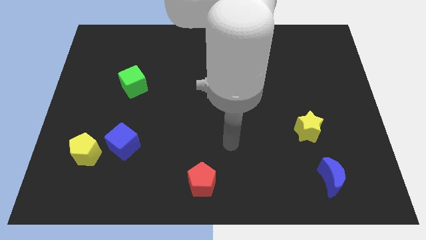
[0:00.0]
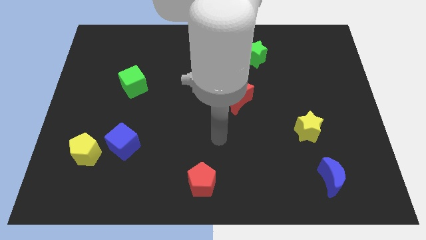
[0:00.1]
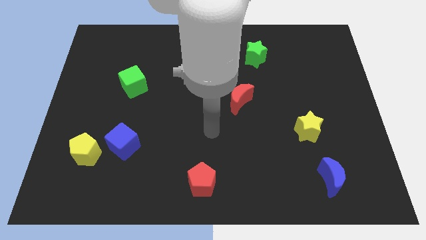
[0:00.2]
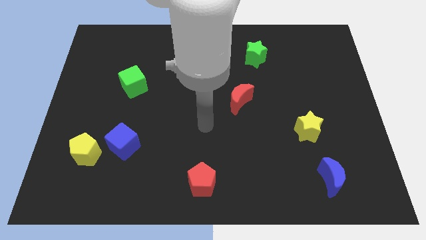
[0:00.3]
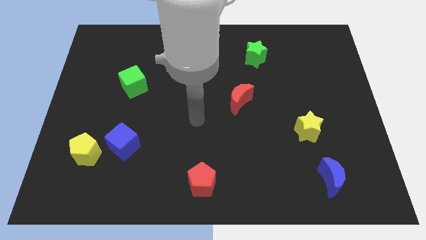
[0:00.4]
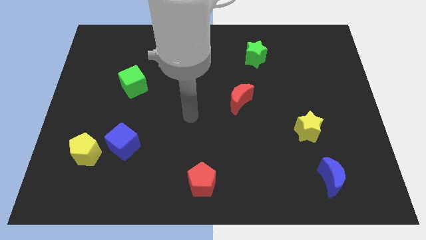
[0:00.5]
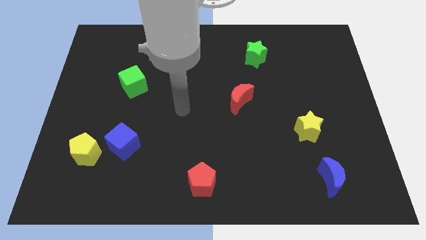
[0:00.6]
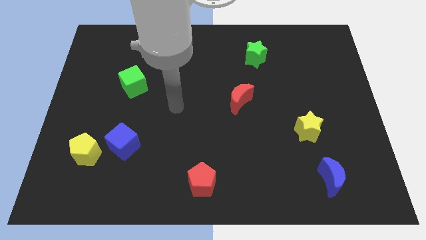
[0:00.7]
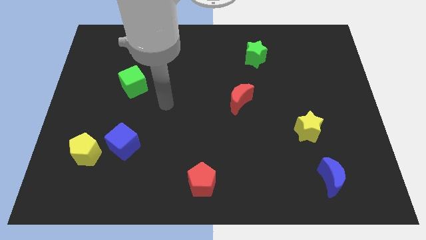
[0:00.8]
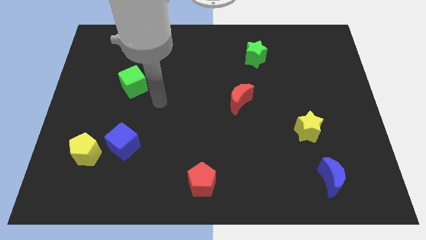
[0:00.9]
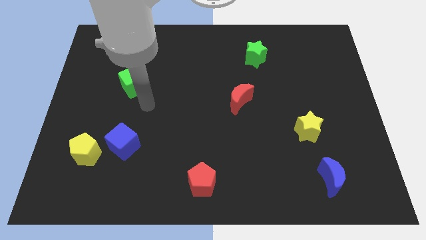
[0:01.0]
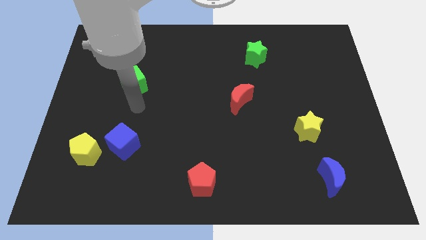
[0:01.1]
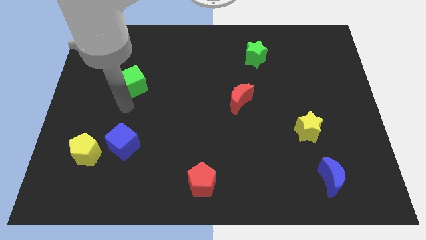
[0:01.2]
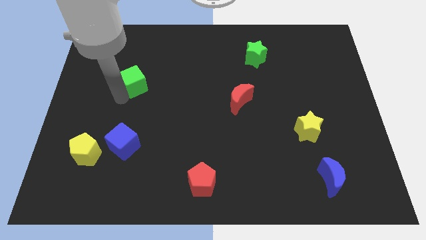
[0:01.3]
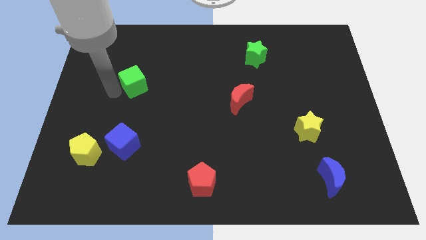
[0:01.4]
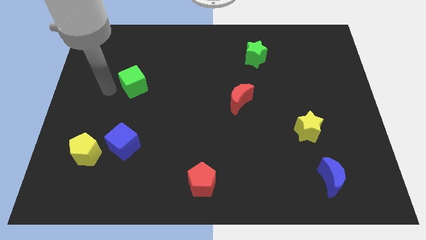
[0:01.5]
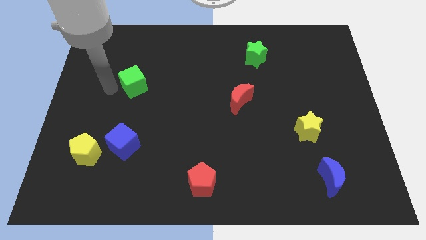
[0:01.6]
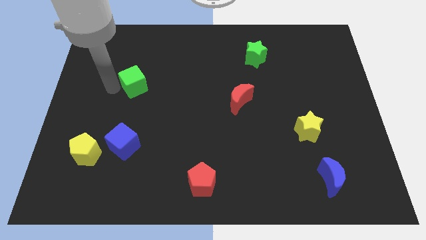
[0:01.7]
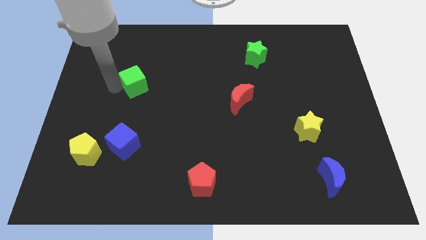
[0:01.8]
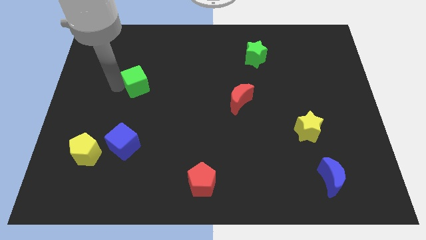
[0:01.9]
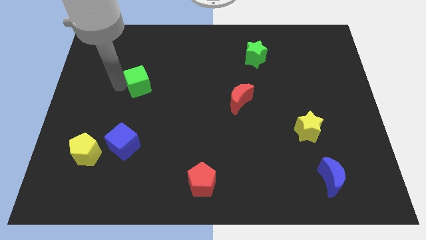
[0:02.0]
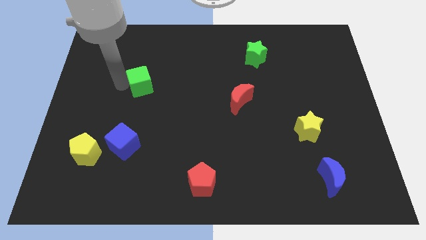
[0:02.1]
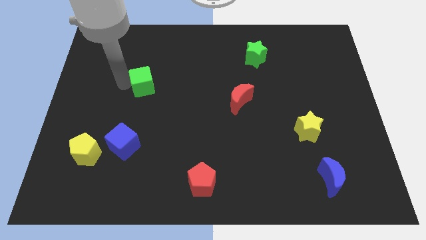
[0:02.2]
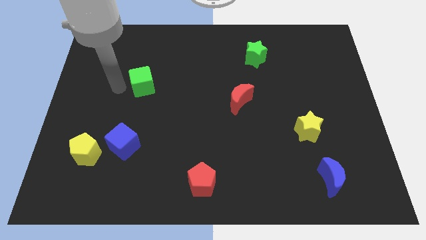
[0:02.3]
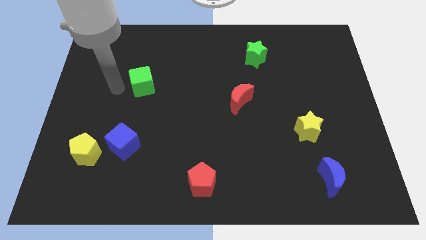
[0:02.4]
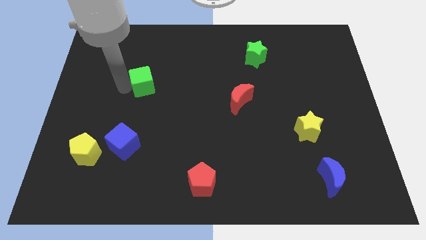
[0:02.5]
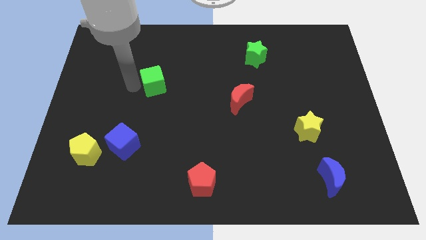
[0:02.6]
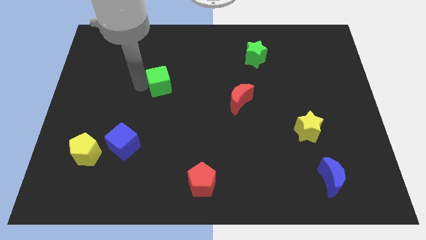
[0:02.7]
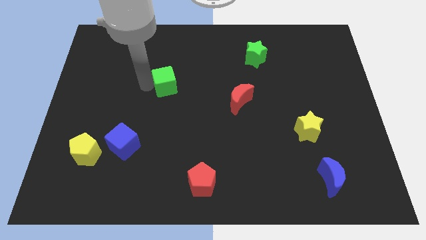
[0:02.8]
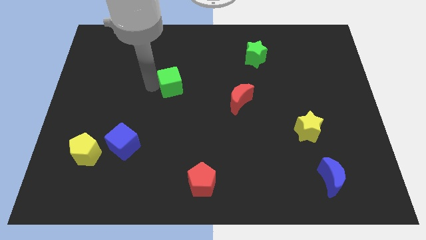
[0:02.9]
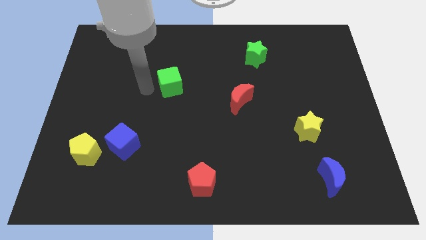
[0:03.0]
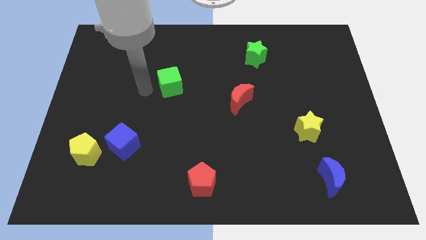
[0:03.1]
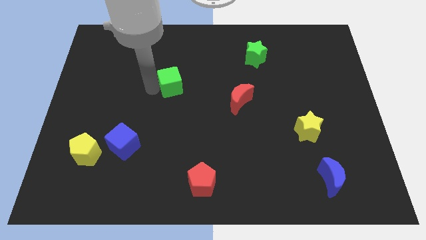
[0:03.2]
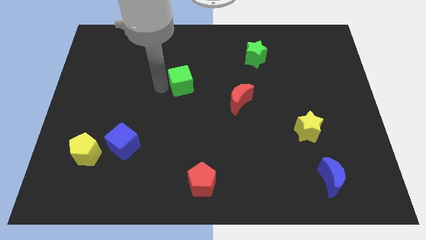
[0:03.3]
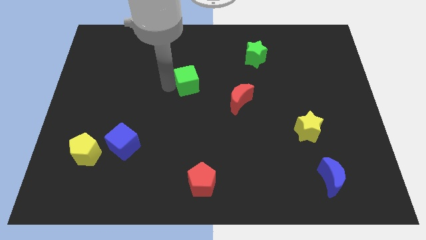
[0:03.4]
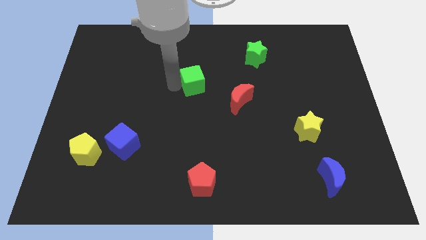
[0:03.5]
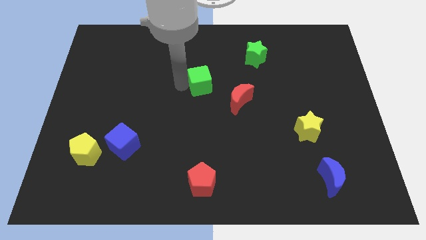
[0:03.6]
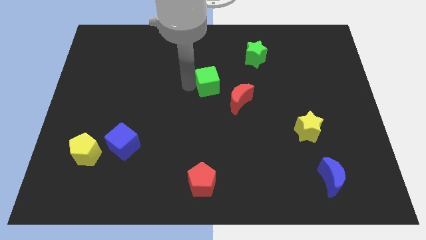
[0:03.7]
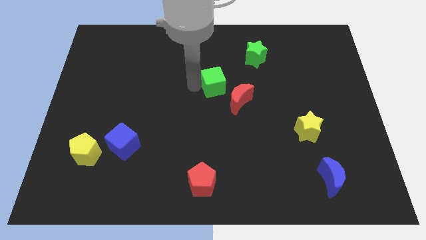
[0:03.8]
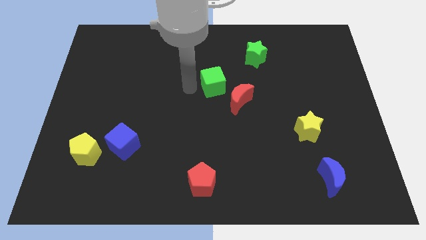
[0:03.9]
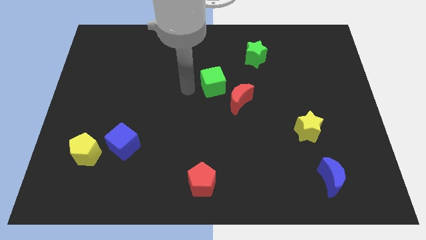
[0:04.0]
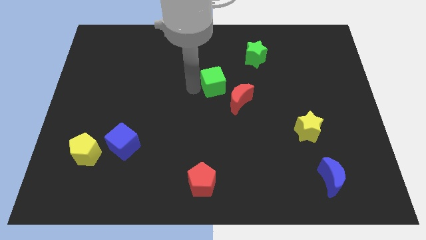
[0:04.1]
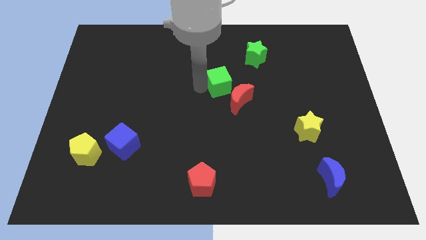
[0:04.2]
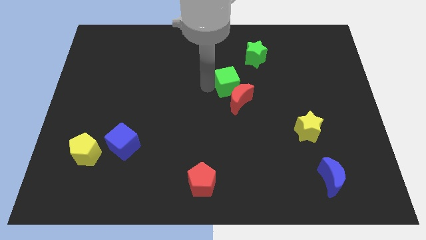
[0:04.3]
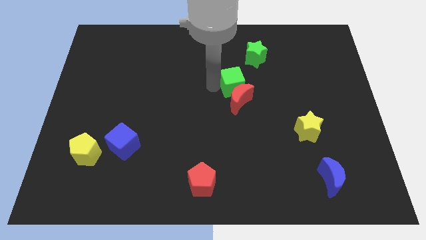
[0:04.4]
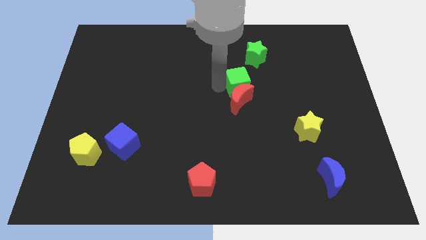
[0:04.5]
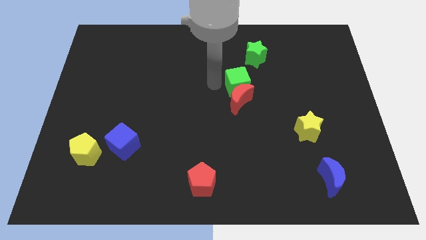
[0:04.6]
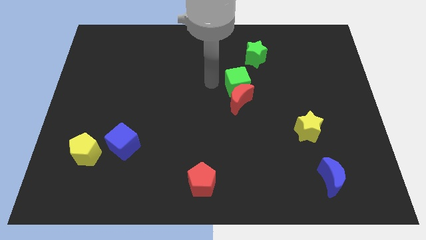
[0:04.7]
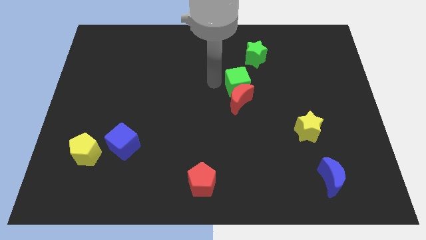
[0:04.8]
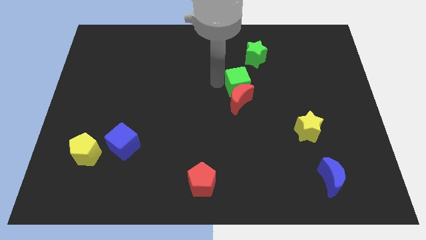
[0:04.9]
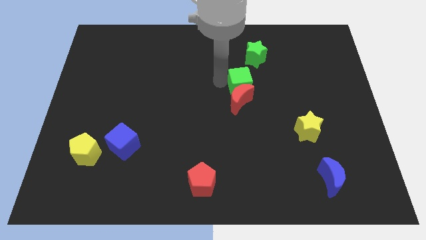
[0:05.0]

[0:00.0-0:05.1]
move the green cube to the bottom side of the green star
